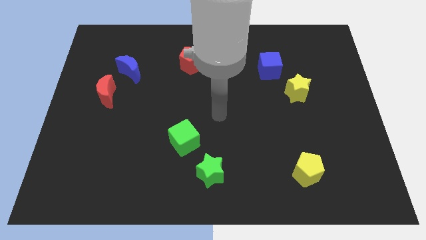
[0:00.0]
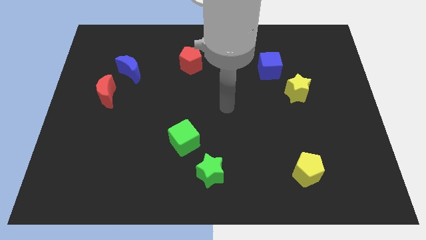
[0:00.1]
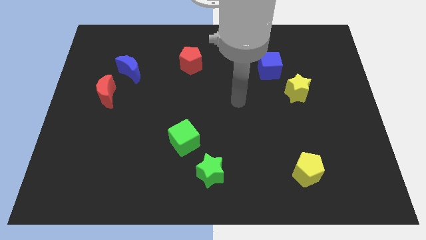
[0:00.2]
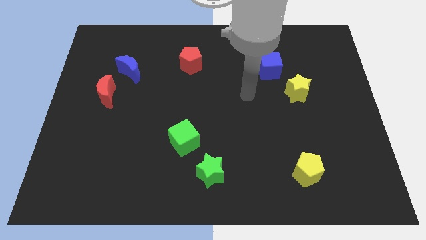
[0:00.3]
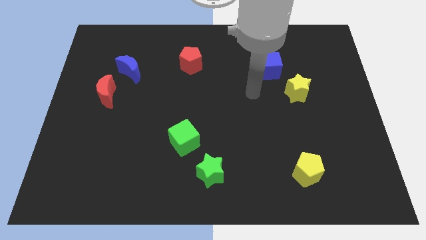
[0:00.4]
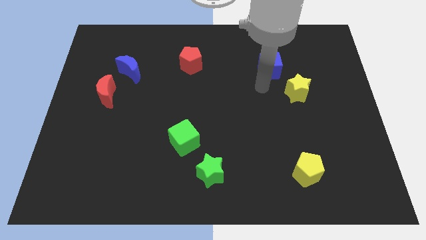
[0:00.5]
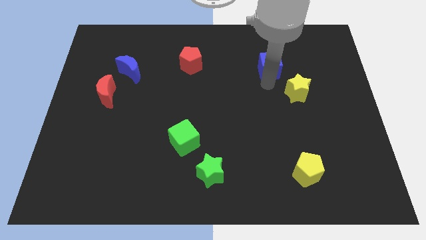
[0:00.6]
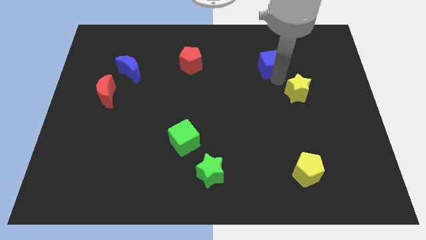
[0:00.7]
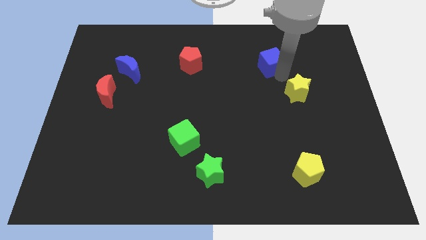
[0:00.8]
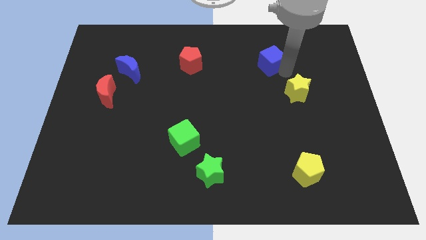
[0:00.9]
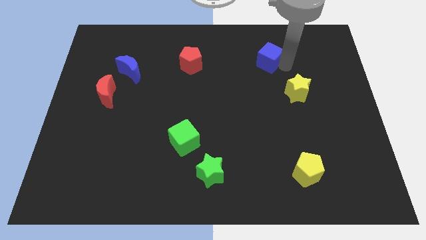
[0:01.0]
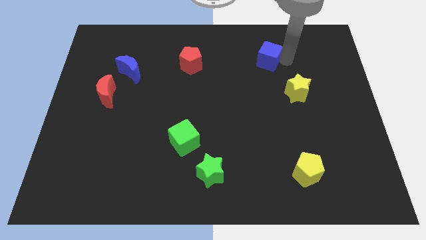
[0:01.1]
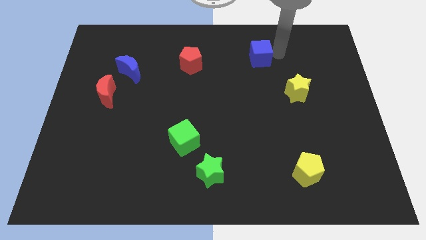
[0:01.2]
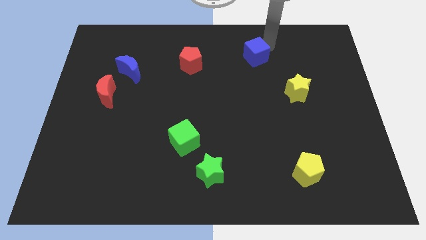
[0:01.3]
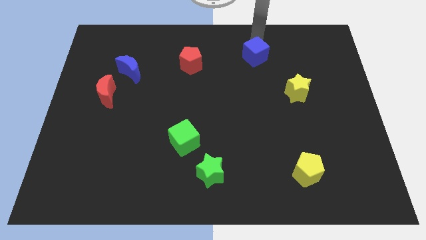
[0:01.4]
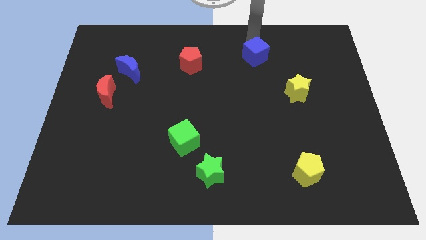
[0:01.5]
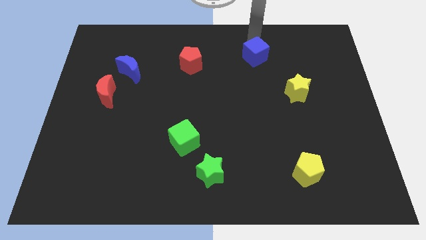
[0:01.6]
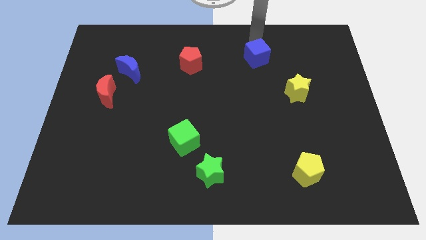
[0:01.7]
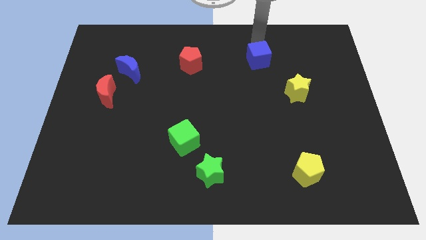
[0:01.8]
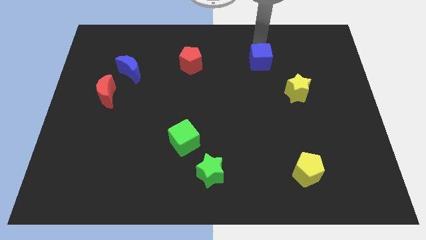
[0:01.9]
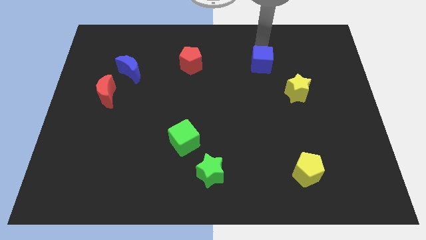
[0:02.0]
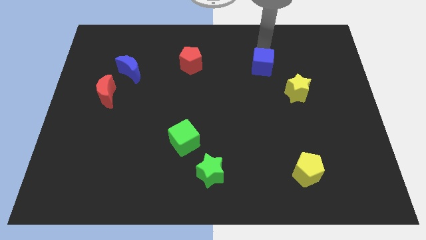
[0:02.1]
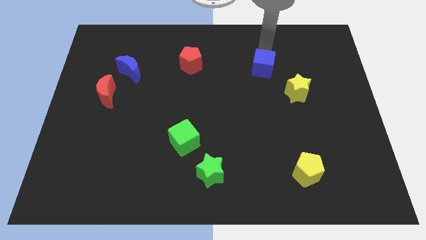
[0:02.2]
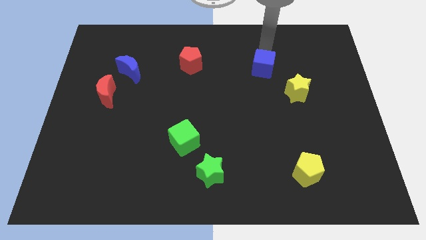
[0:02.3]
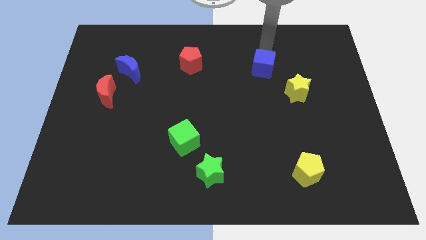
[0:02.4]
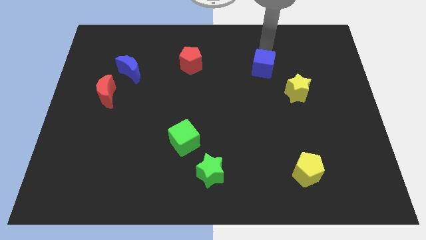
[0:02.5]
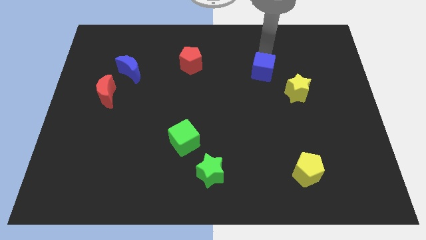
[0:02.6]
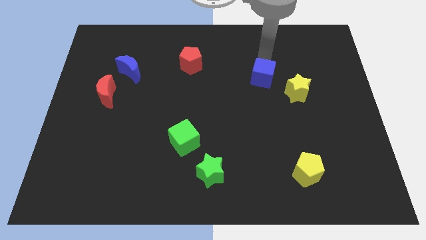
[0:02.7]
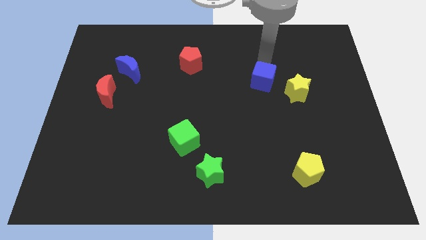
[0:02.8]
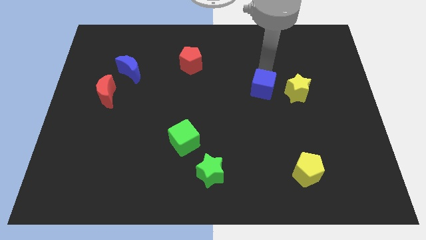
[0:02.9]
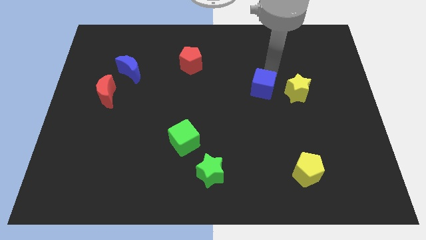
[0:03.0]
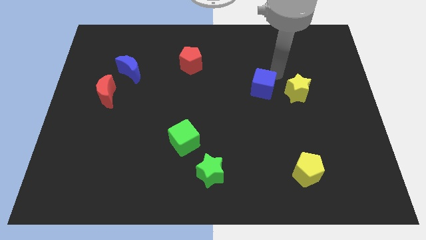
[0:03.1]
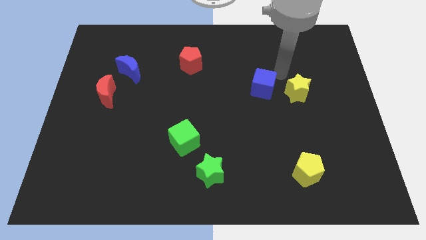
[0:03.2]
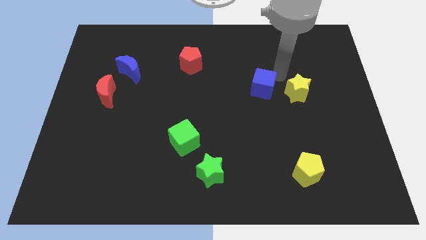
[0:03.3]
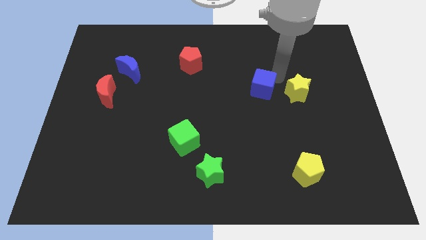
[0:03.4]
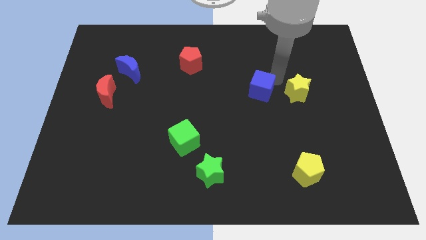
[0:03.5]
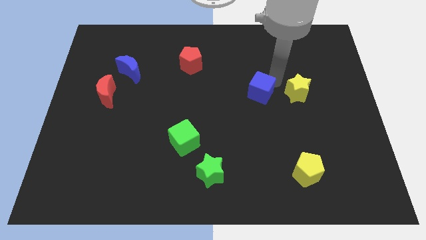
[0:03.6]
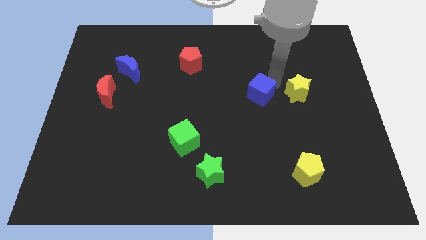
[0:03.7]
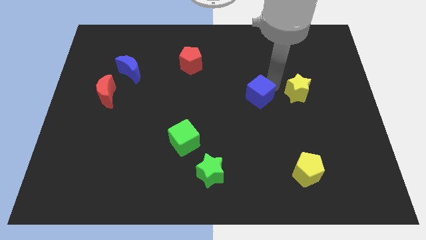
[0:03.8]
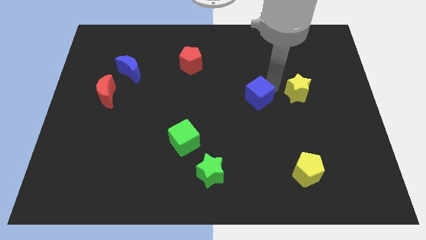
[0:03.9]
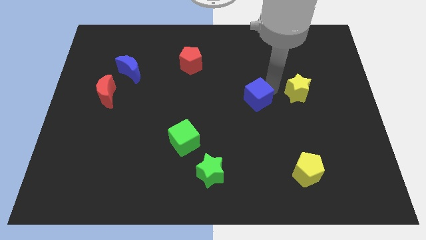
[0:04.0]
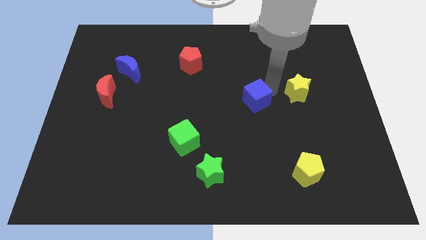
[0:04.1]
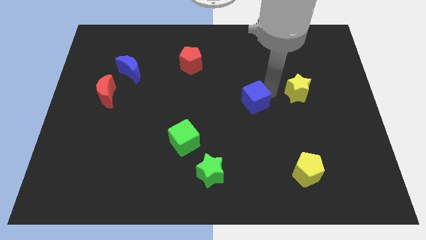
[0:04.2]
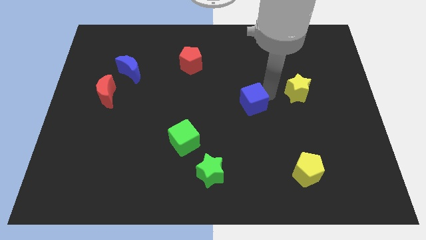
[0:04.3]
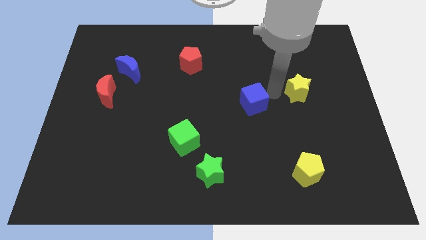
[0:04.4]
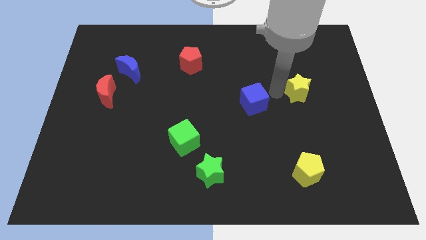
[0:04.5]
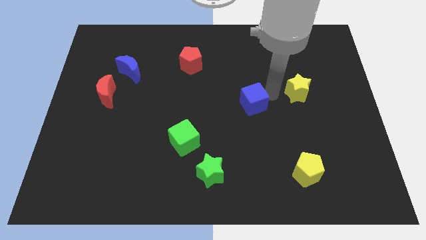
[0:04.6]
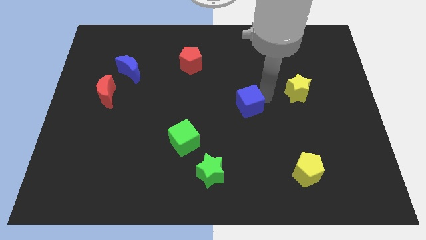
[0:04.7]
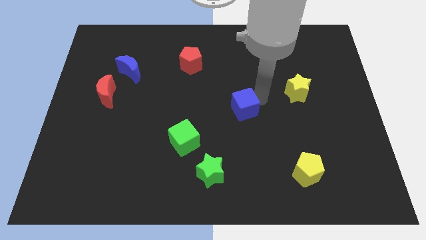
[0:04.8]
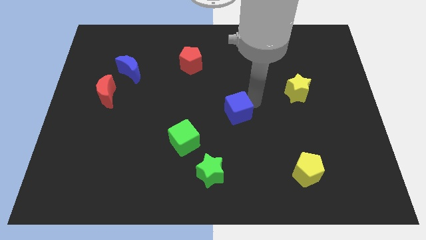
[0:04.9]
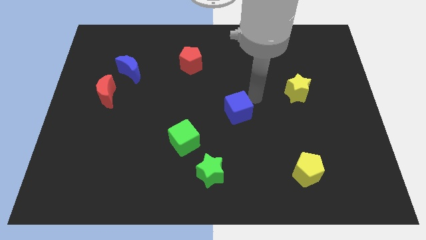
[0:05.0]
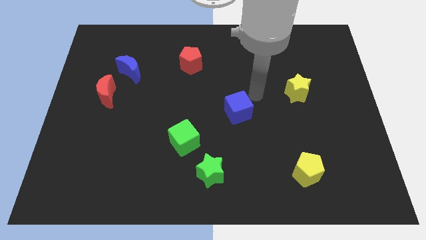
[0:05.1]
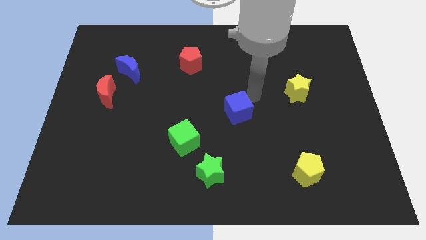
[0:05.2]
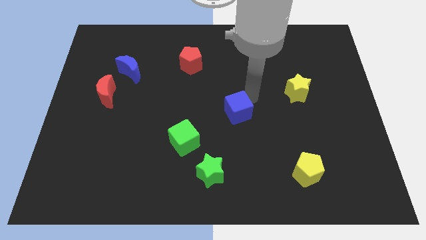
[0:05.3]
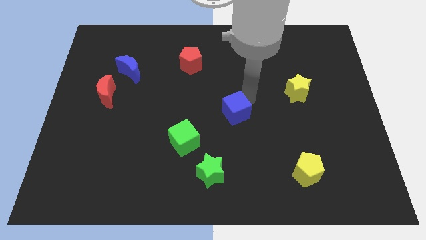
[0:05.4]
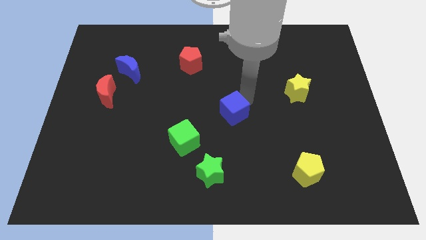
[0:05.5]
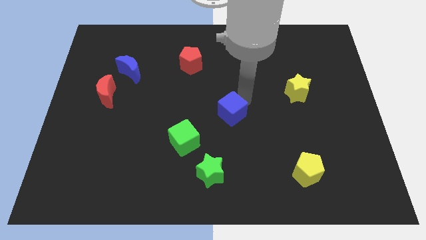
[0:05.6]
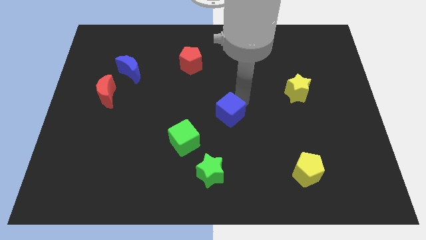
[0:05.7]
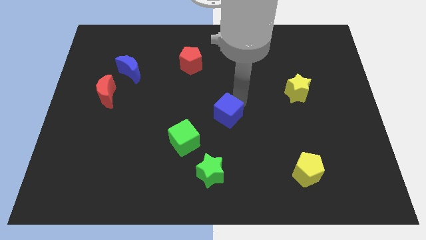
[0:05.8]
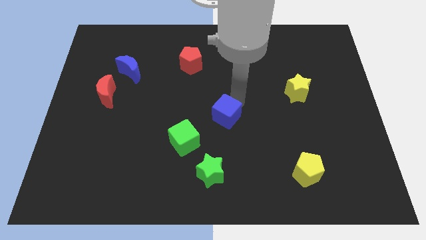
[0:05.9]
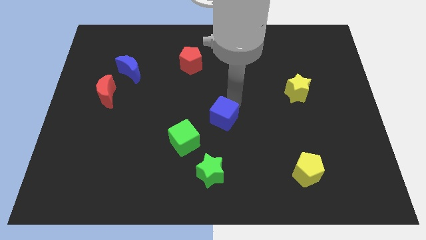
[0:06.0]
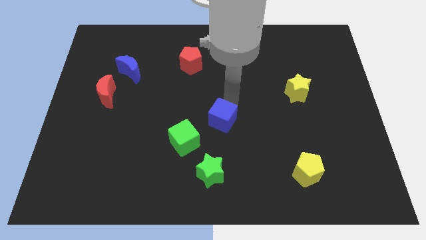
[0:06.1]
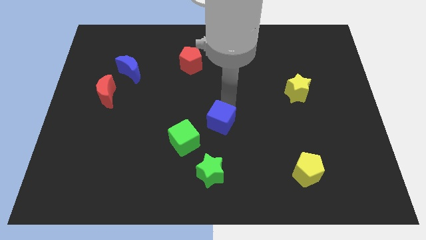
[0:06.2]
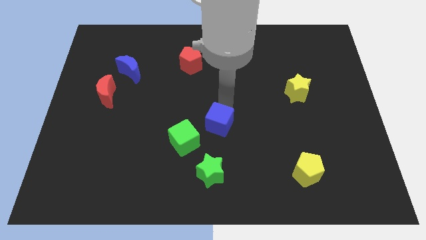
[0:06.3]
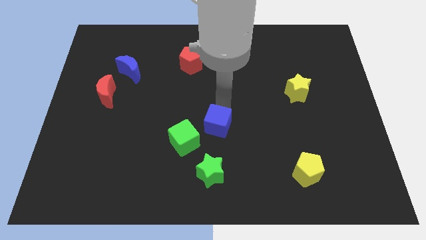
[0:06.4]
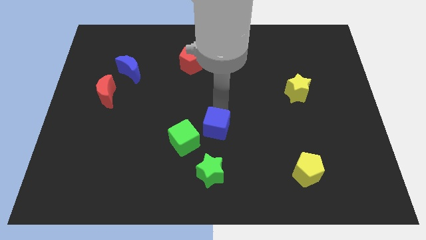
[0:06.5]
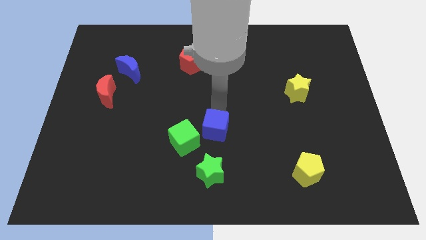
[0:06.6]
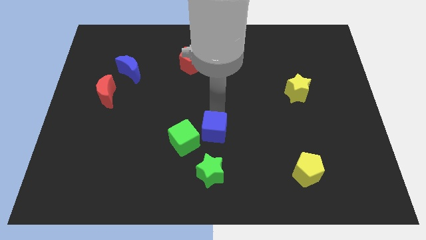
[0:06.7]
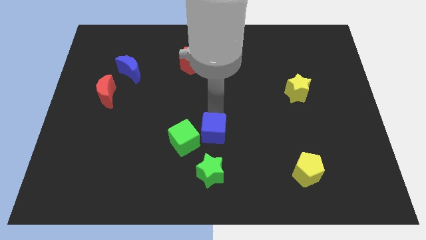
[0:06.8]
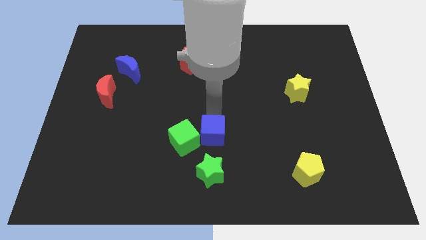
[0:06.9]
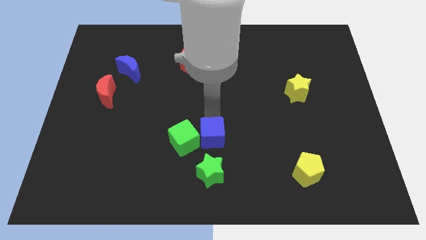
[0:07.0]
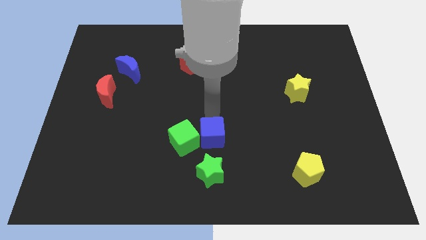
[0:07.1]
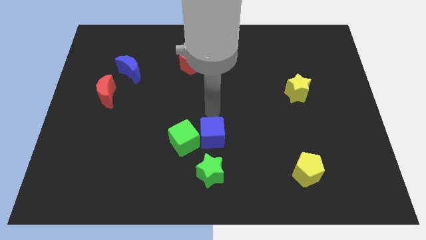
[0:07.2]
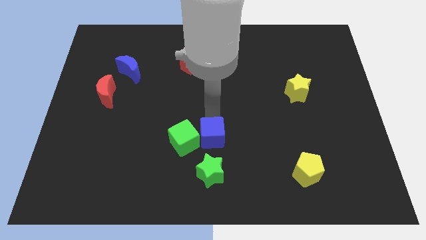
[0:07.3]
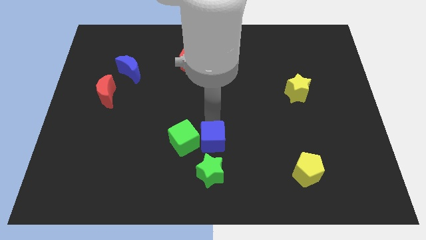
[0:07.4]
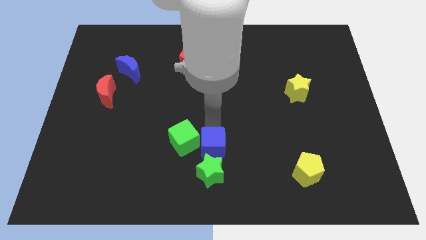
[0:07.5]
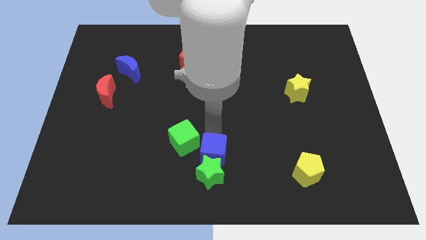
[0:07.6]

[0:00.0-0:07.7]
slide the blue cube close to the green star
